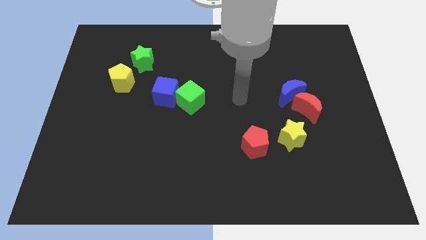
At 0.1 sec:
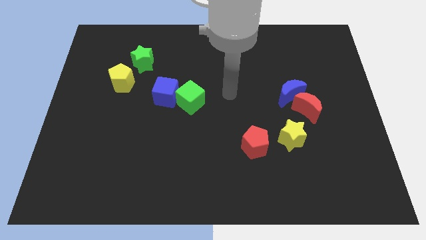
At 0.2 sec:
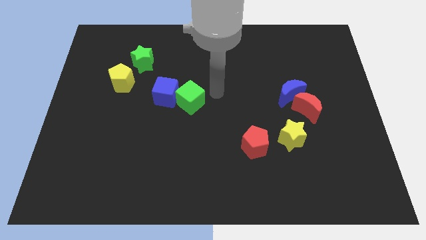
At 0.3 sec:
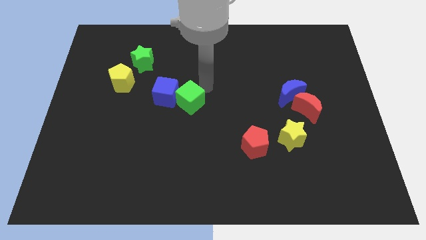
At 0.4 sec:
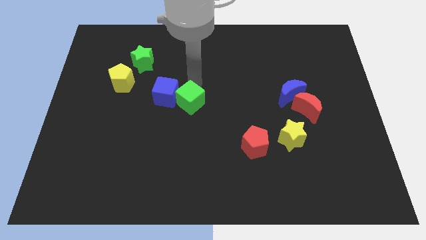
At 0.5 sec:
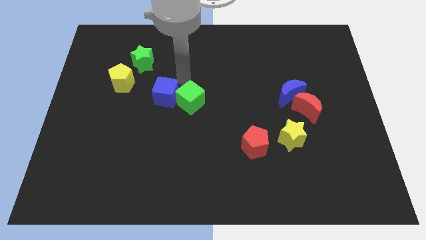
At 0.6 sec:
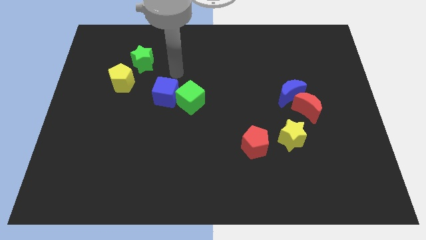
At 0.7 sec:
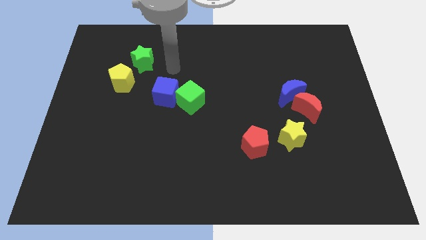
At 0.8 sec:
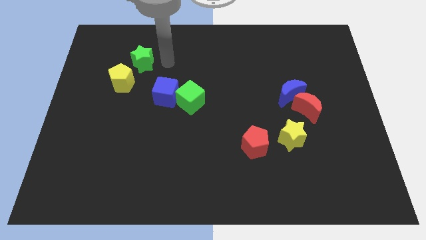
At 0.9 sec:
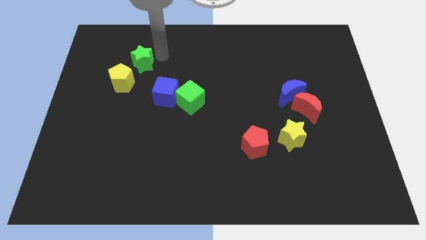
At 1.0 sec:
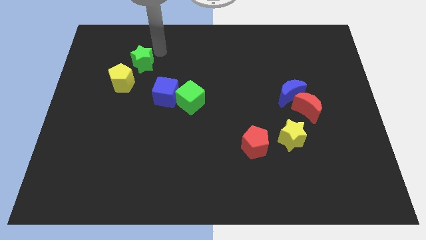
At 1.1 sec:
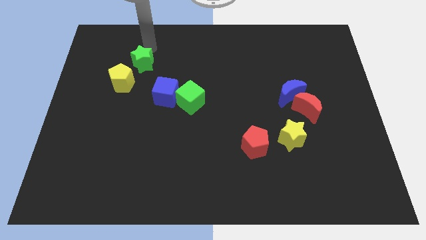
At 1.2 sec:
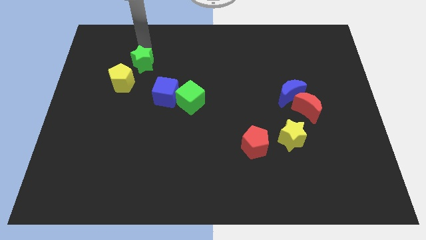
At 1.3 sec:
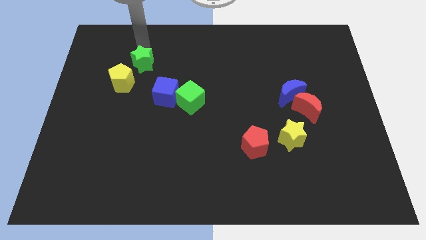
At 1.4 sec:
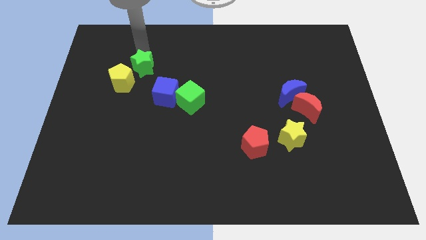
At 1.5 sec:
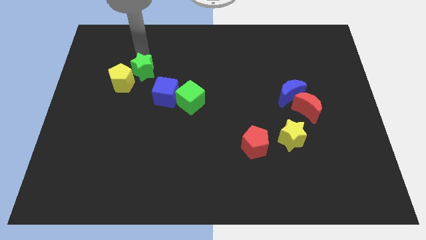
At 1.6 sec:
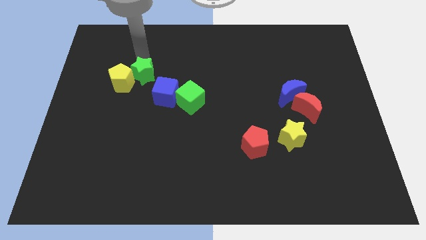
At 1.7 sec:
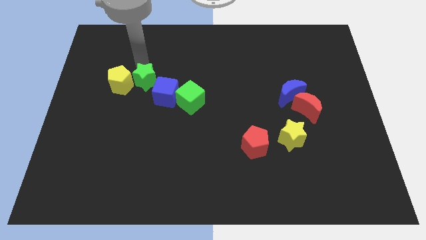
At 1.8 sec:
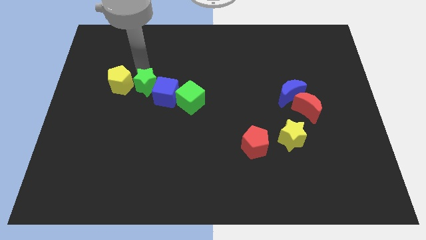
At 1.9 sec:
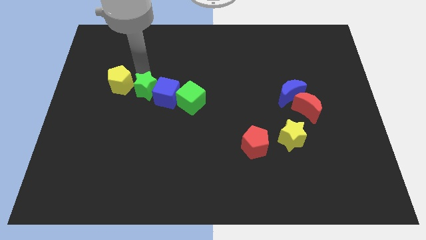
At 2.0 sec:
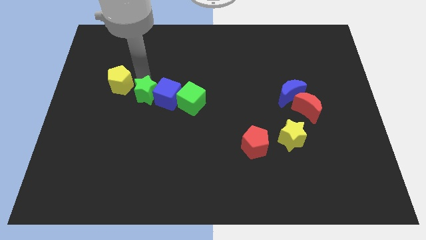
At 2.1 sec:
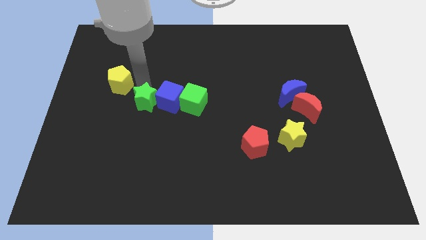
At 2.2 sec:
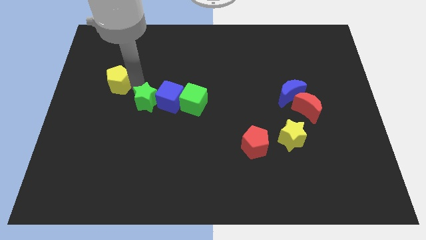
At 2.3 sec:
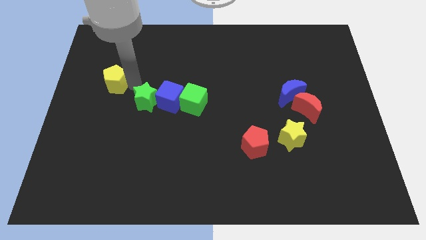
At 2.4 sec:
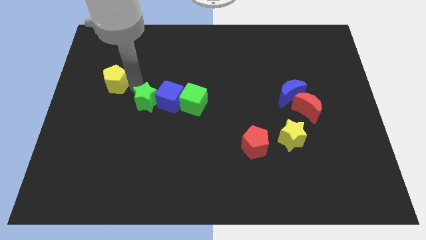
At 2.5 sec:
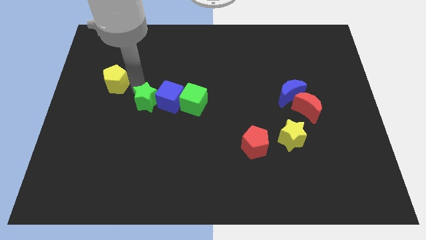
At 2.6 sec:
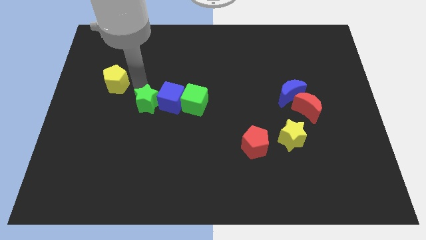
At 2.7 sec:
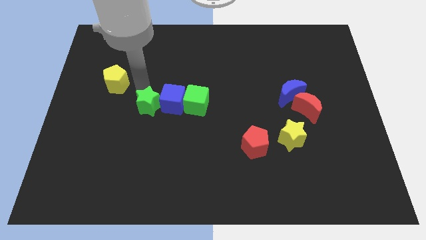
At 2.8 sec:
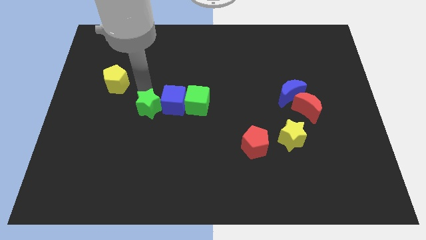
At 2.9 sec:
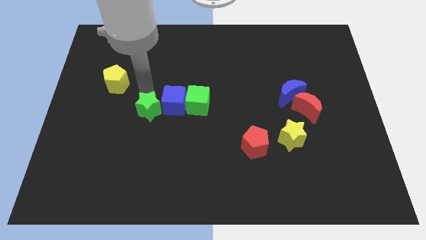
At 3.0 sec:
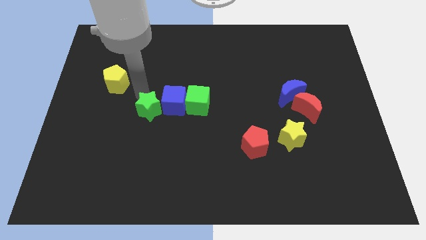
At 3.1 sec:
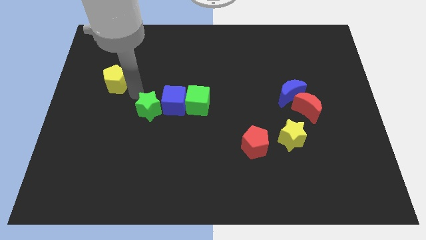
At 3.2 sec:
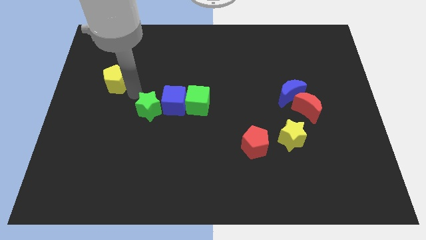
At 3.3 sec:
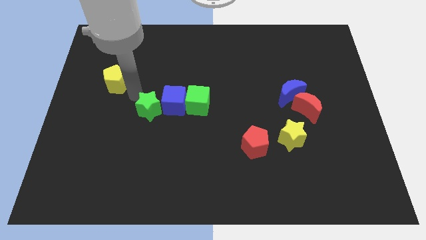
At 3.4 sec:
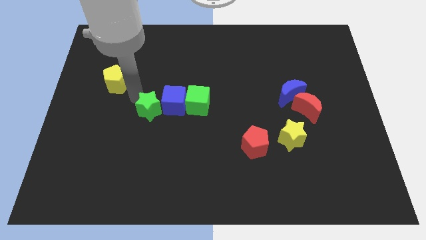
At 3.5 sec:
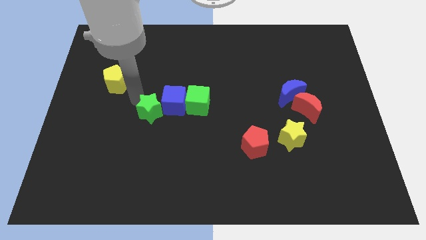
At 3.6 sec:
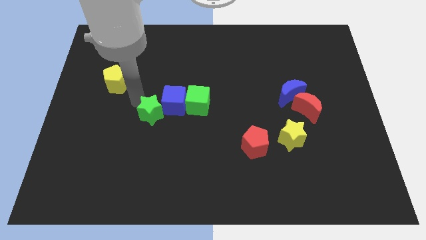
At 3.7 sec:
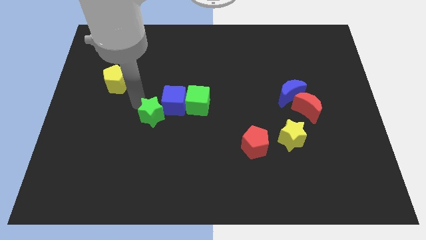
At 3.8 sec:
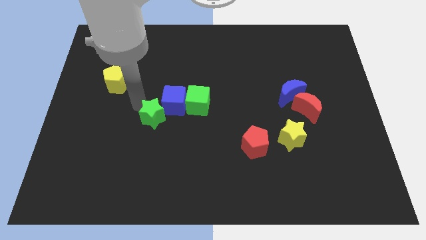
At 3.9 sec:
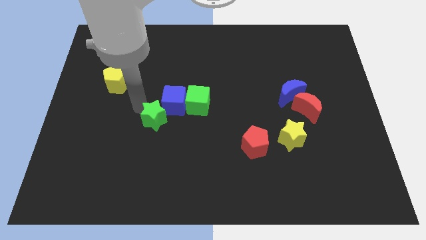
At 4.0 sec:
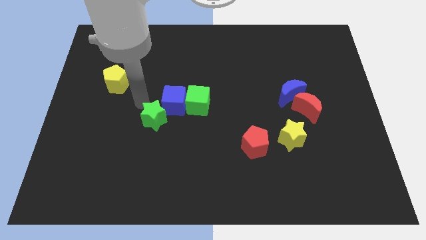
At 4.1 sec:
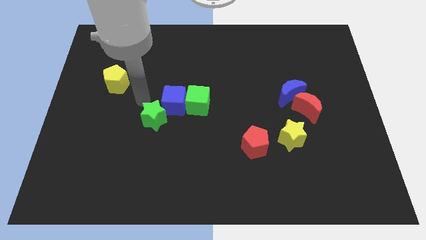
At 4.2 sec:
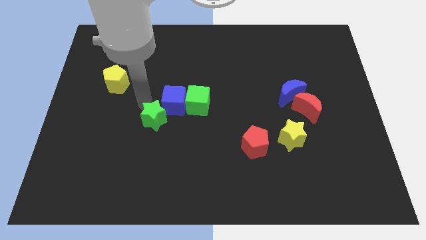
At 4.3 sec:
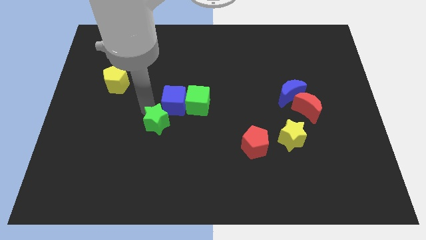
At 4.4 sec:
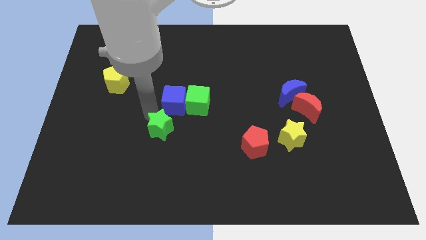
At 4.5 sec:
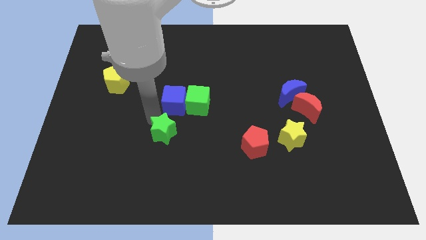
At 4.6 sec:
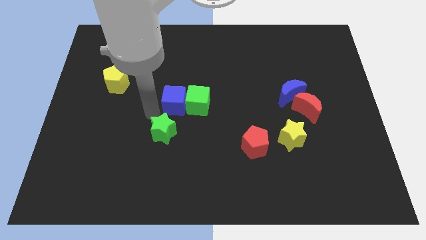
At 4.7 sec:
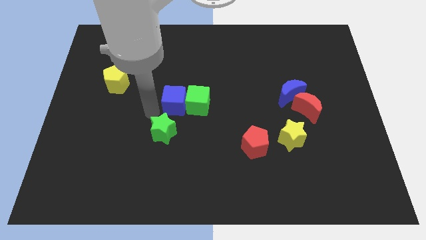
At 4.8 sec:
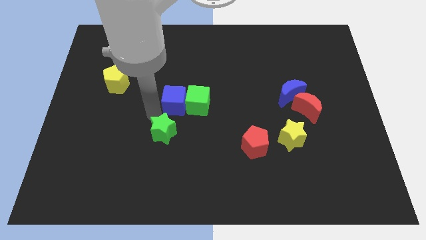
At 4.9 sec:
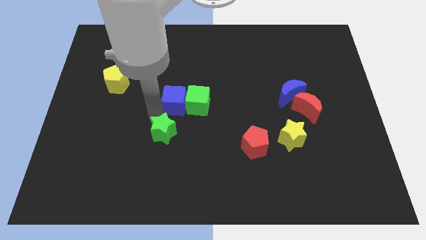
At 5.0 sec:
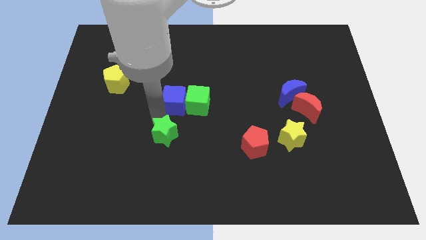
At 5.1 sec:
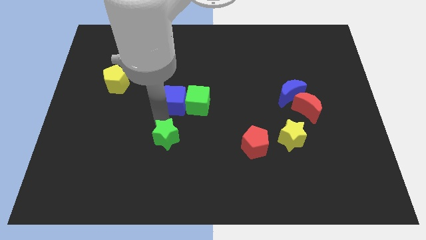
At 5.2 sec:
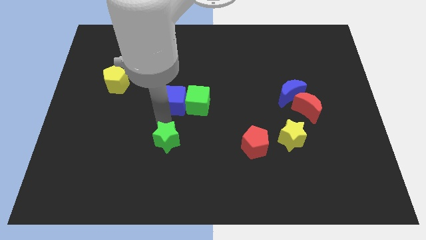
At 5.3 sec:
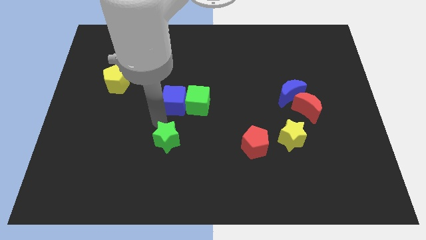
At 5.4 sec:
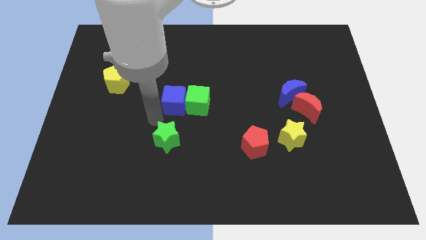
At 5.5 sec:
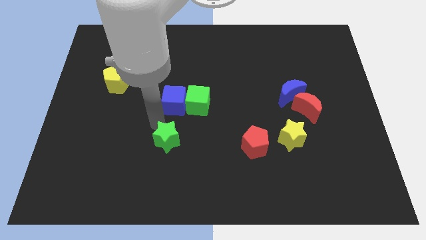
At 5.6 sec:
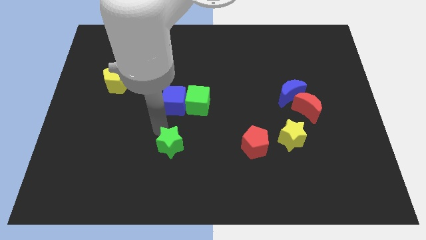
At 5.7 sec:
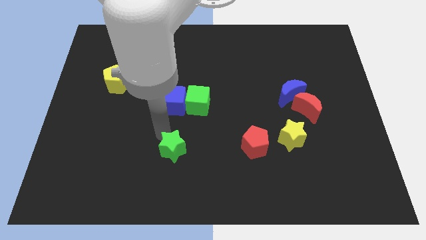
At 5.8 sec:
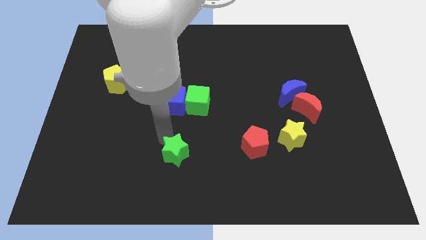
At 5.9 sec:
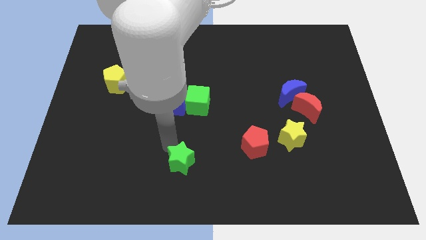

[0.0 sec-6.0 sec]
move the green star to the bottom

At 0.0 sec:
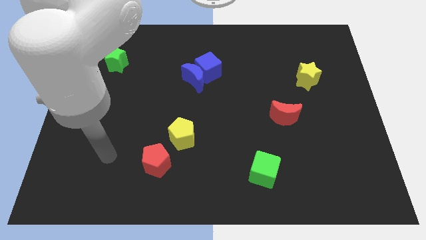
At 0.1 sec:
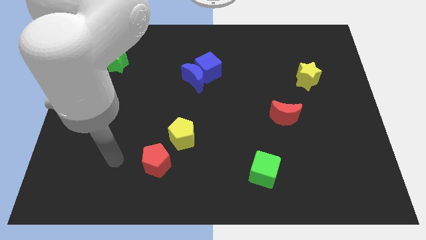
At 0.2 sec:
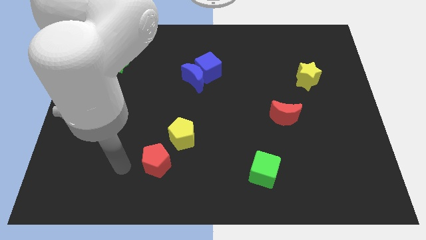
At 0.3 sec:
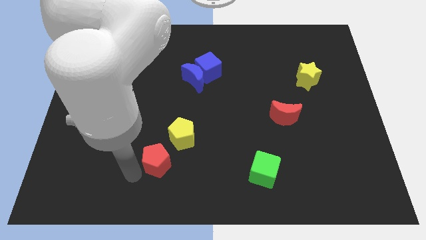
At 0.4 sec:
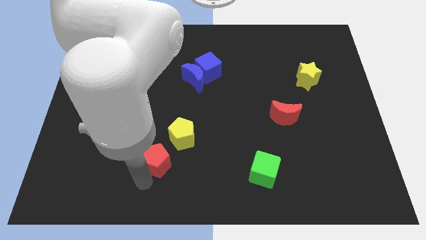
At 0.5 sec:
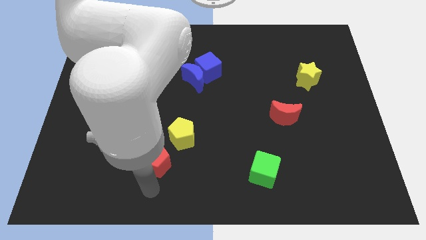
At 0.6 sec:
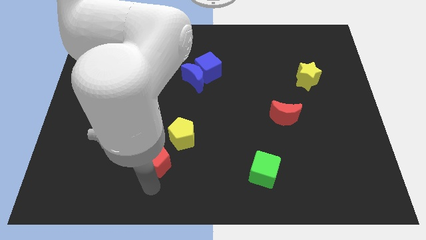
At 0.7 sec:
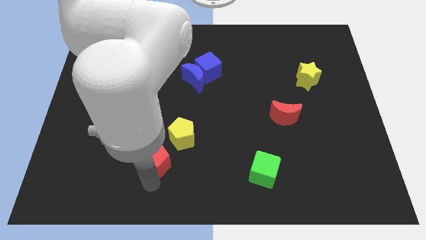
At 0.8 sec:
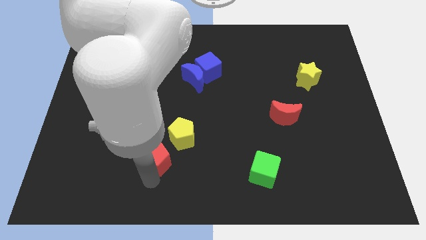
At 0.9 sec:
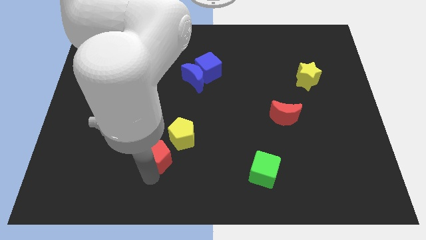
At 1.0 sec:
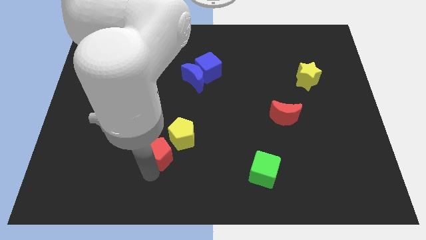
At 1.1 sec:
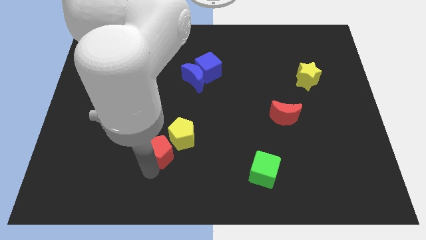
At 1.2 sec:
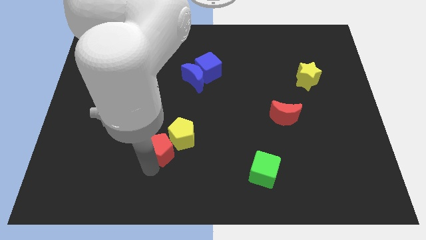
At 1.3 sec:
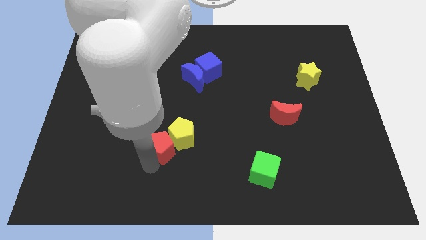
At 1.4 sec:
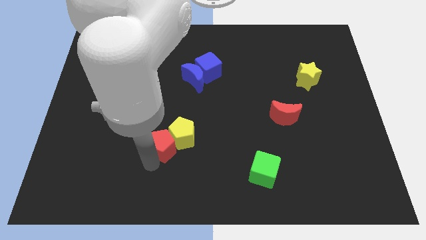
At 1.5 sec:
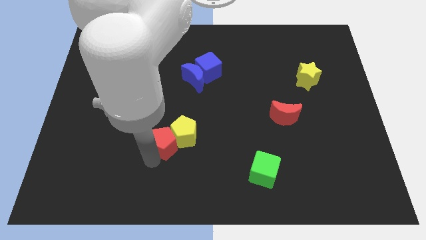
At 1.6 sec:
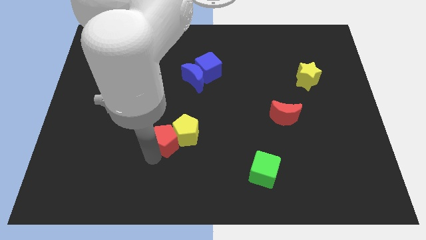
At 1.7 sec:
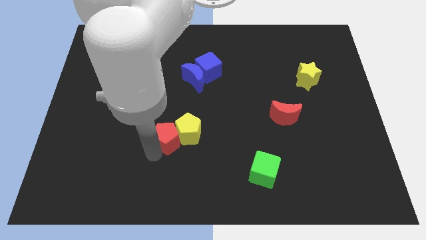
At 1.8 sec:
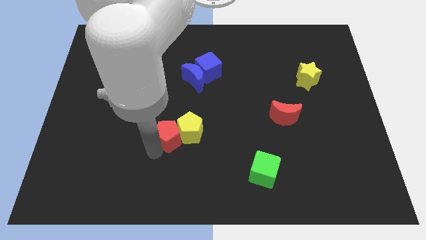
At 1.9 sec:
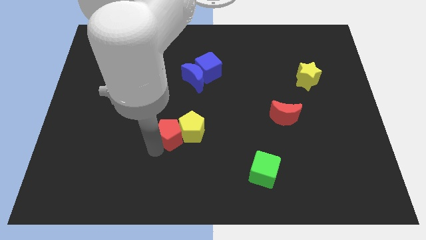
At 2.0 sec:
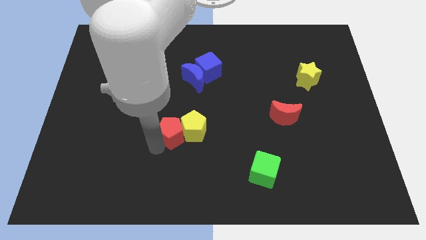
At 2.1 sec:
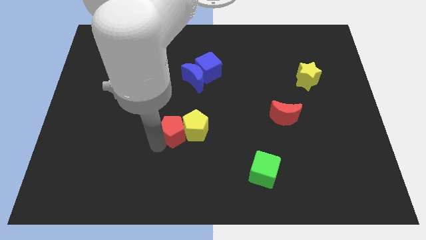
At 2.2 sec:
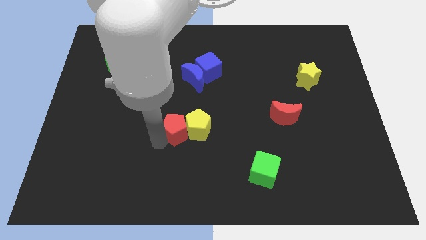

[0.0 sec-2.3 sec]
put the red pentagon to the center

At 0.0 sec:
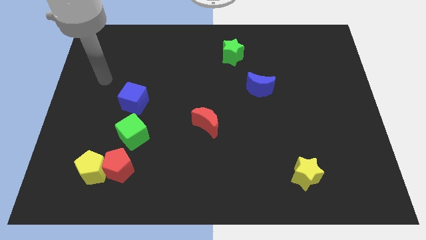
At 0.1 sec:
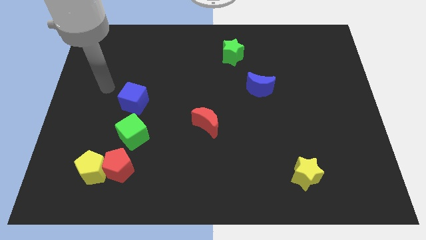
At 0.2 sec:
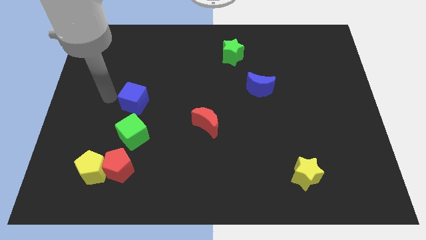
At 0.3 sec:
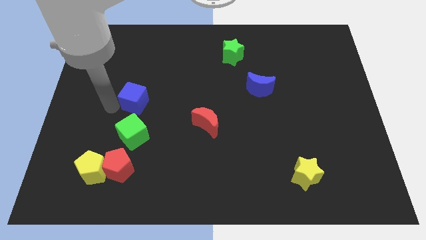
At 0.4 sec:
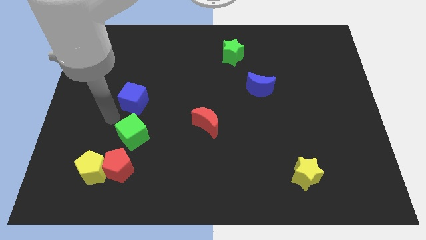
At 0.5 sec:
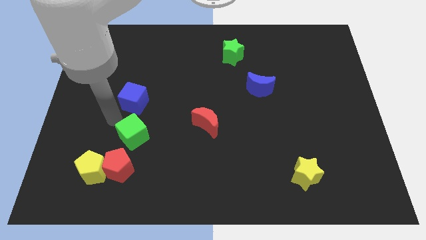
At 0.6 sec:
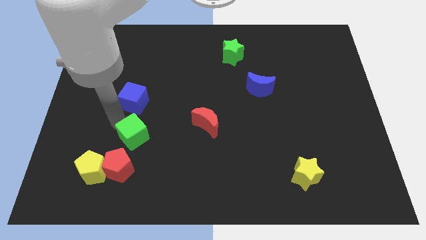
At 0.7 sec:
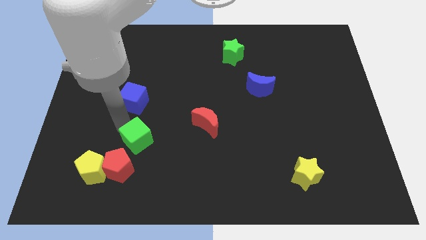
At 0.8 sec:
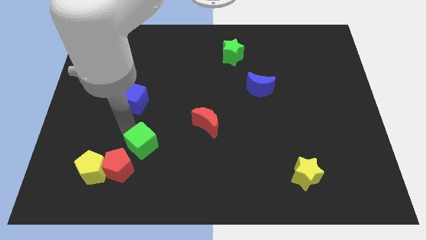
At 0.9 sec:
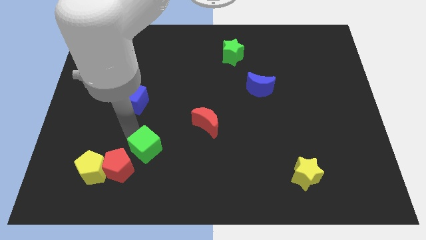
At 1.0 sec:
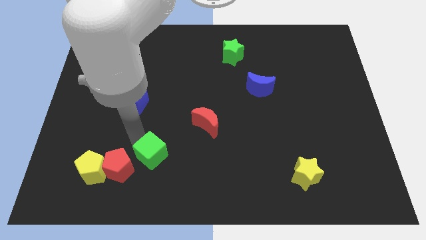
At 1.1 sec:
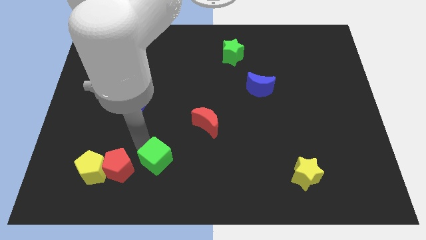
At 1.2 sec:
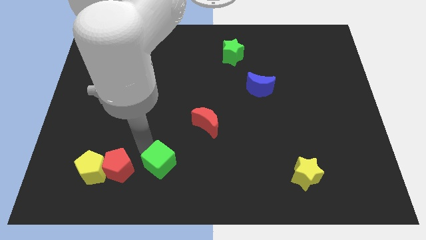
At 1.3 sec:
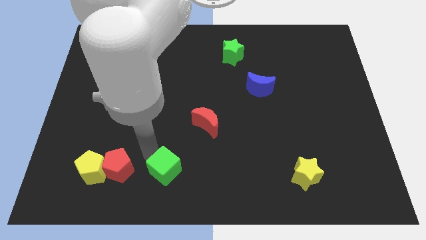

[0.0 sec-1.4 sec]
slide the green cube to the bottom side
